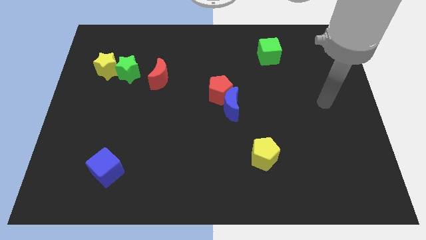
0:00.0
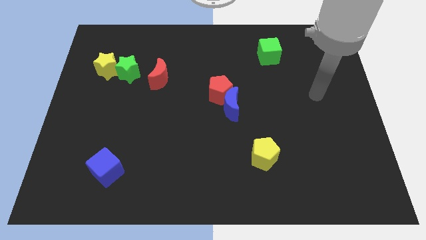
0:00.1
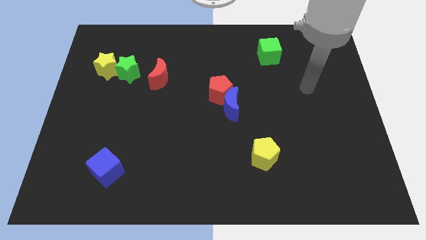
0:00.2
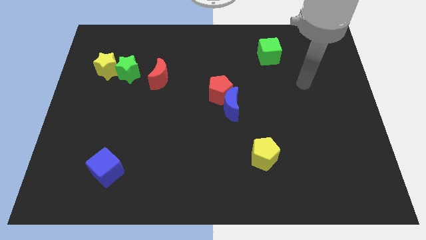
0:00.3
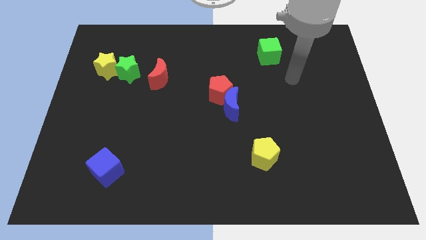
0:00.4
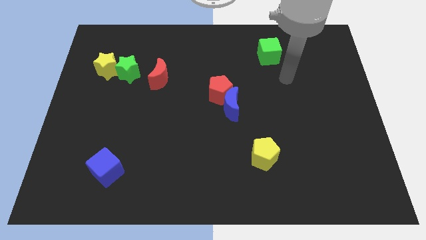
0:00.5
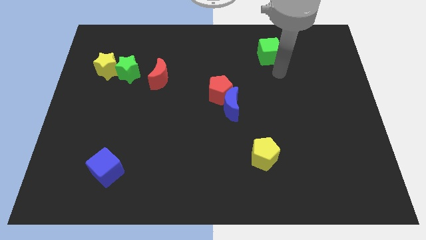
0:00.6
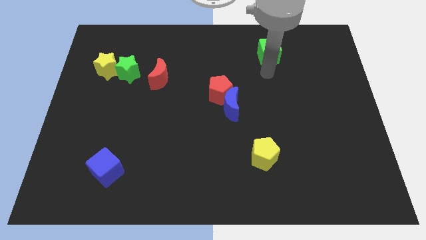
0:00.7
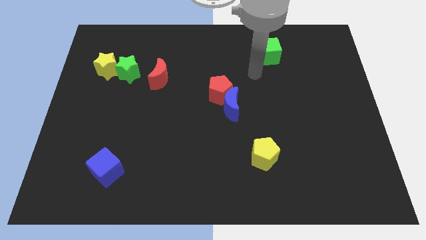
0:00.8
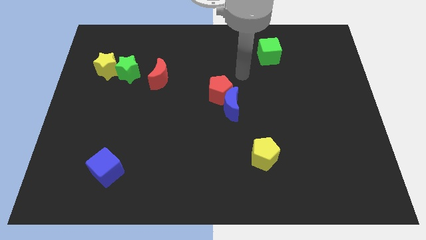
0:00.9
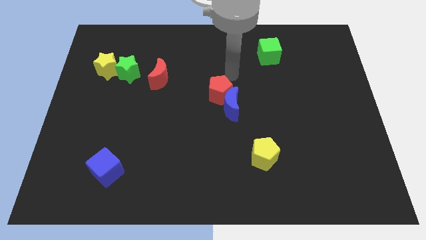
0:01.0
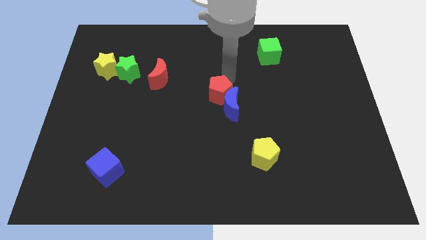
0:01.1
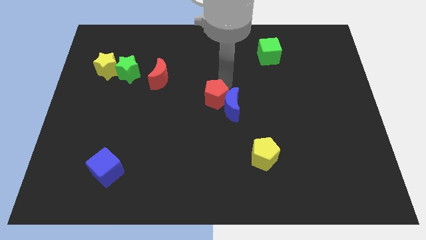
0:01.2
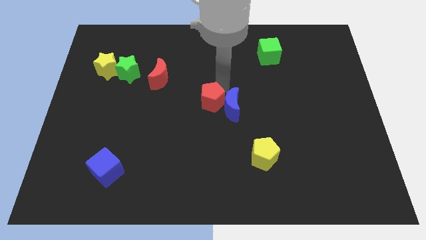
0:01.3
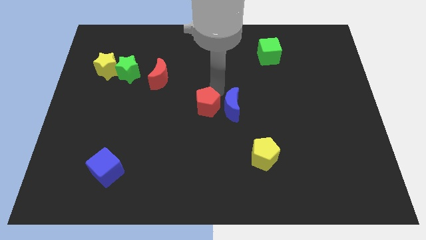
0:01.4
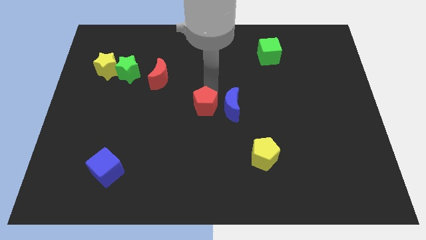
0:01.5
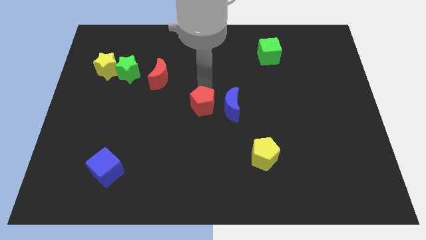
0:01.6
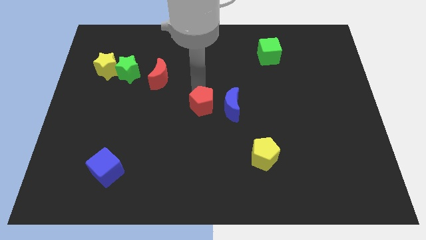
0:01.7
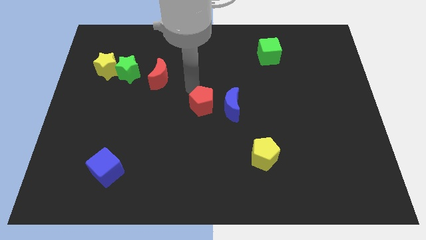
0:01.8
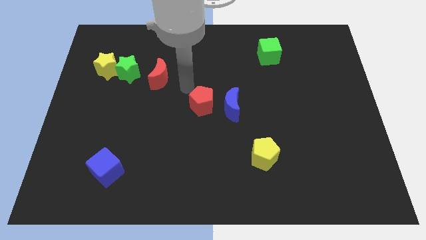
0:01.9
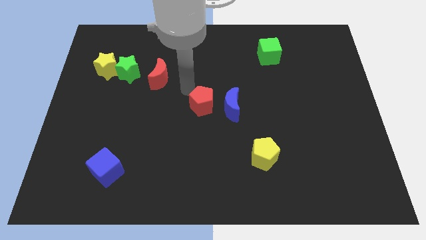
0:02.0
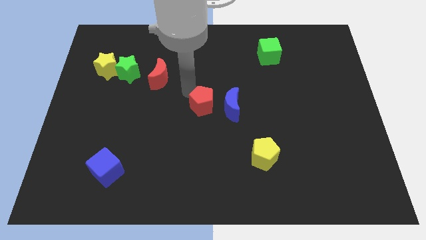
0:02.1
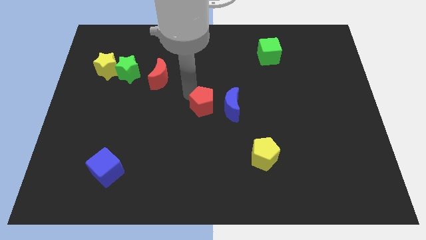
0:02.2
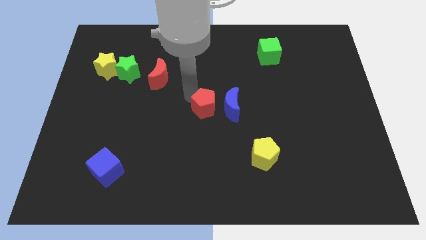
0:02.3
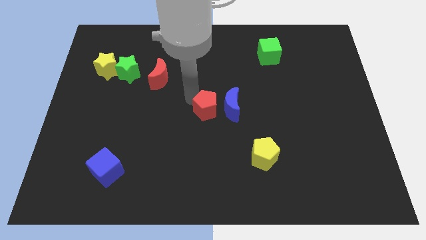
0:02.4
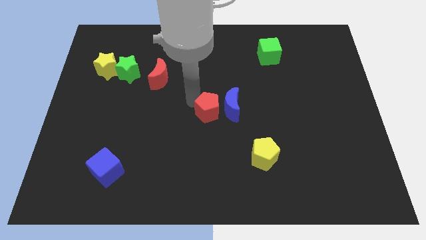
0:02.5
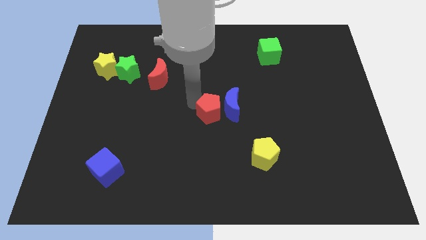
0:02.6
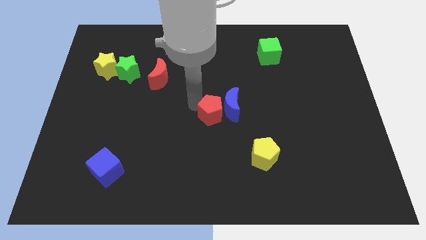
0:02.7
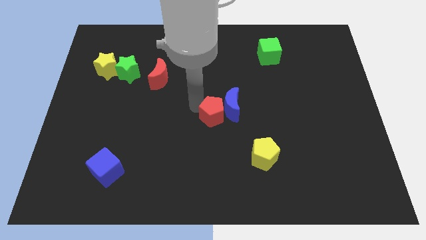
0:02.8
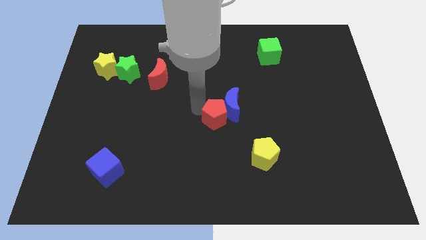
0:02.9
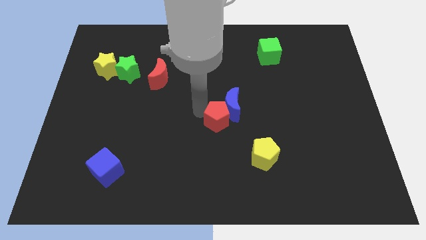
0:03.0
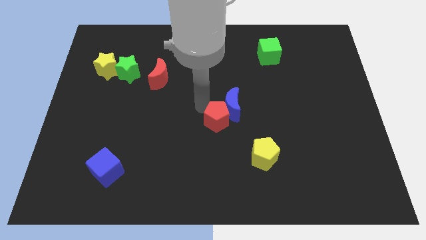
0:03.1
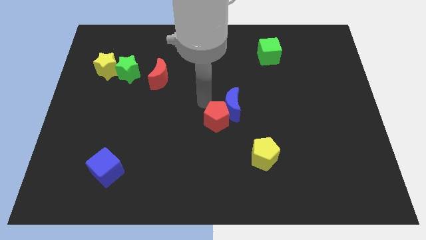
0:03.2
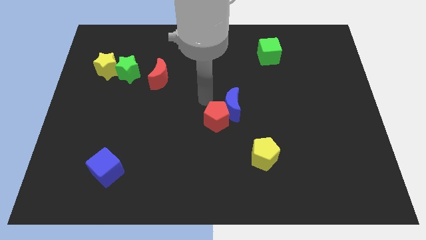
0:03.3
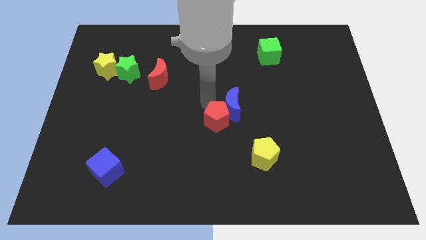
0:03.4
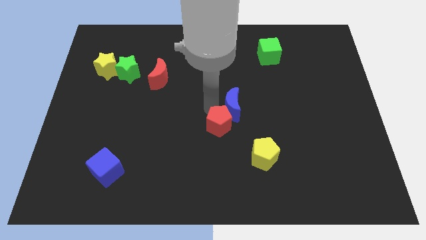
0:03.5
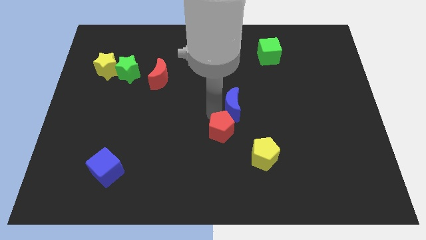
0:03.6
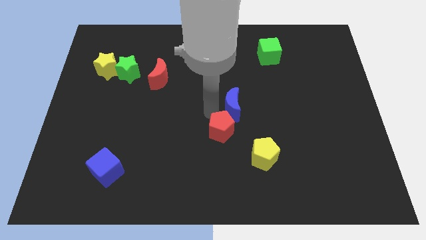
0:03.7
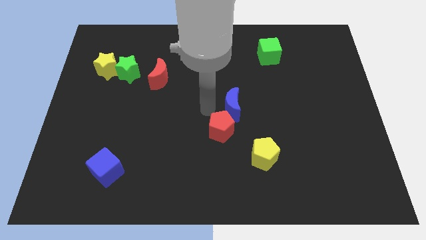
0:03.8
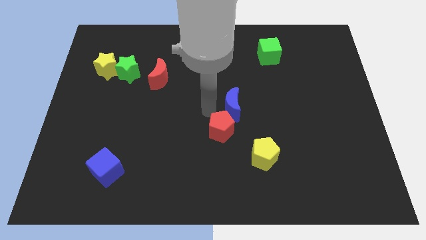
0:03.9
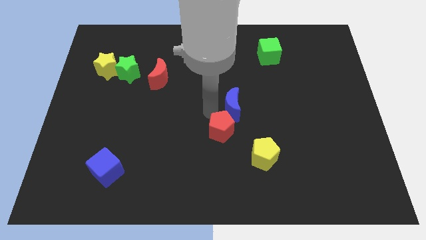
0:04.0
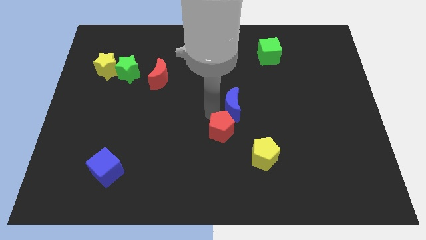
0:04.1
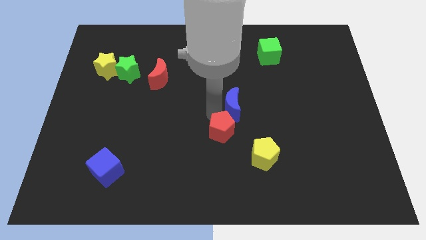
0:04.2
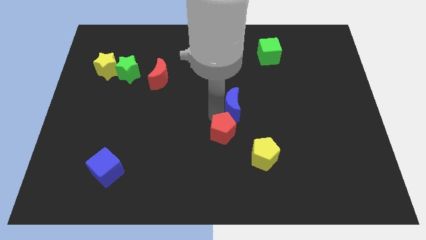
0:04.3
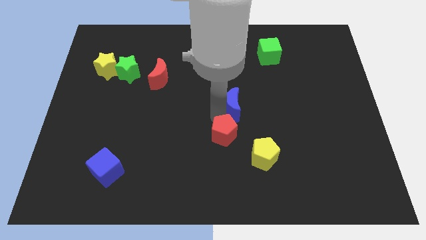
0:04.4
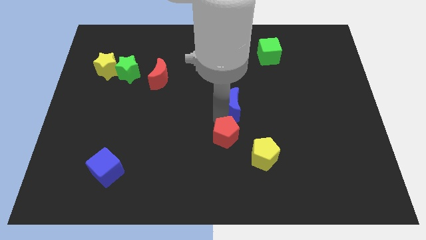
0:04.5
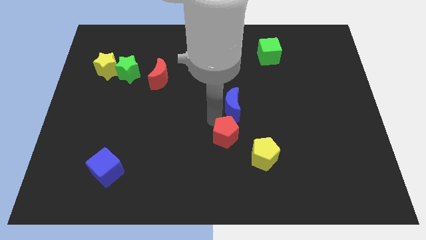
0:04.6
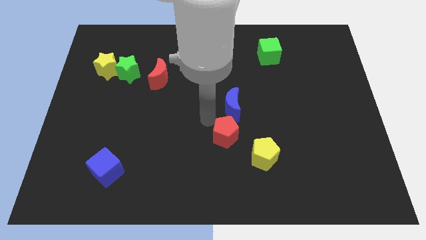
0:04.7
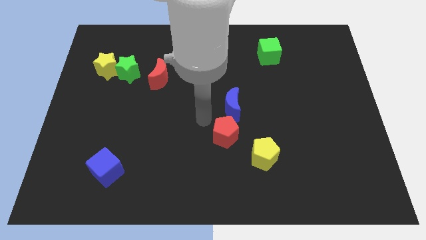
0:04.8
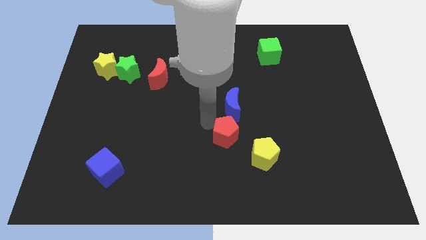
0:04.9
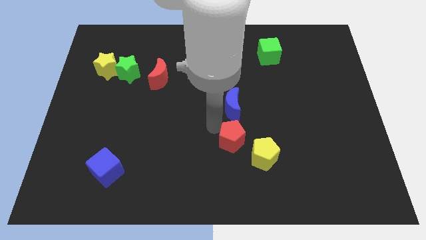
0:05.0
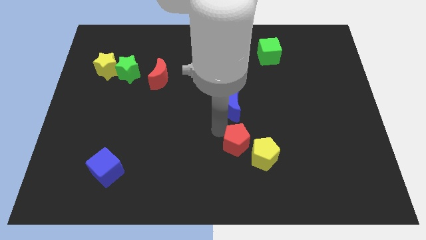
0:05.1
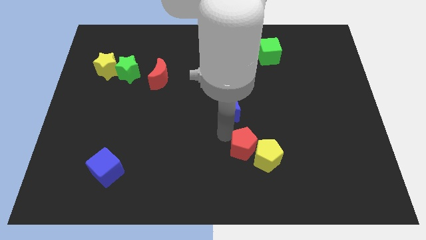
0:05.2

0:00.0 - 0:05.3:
push the red pentagon next to the yellow pentagon

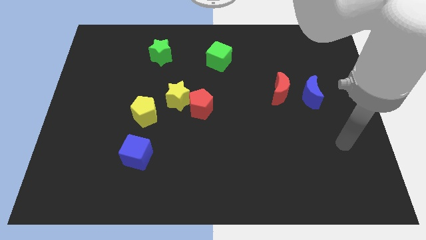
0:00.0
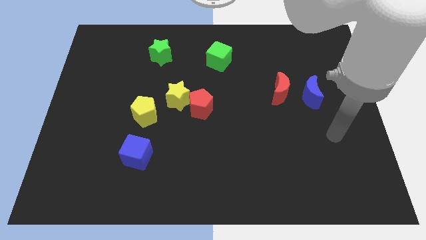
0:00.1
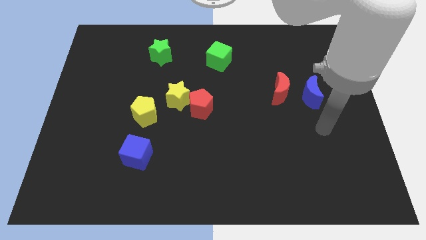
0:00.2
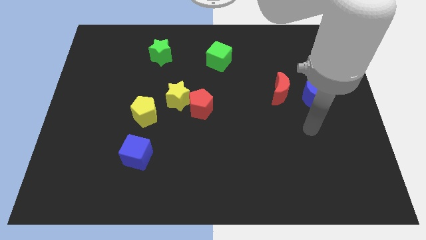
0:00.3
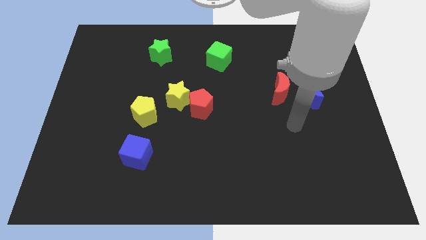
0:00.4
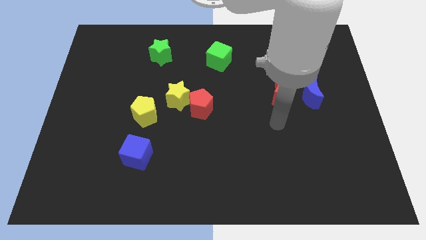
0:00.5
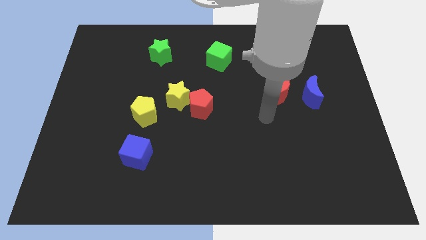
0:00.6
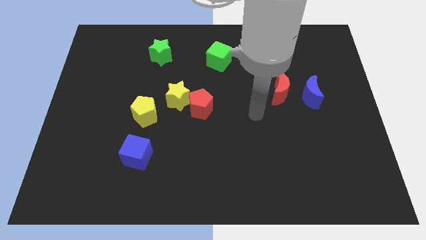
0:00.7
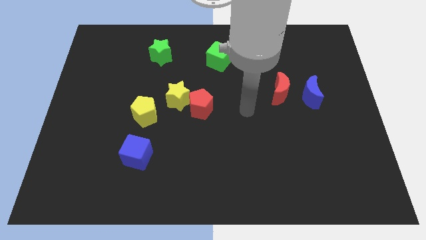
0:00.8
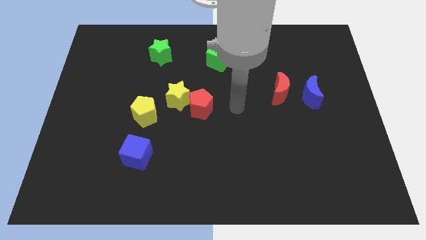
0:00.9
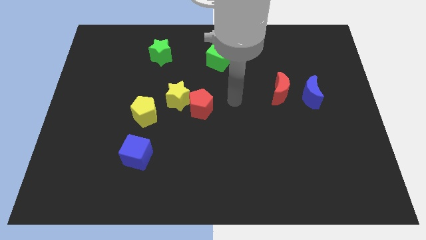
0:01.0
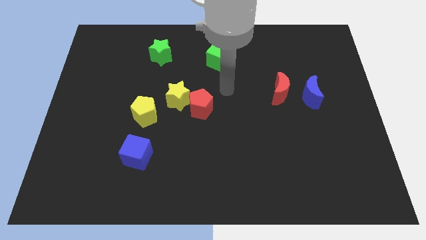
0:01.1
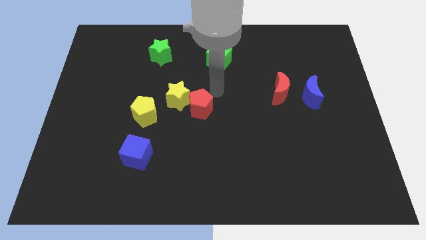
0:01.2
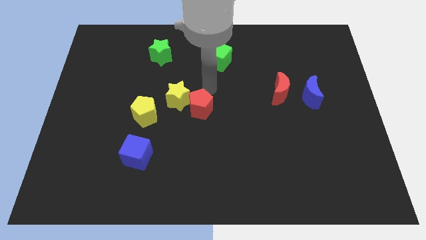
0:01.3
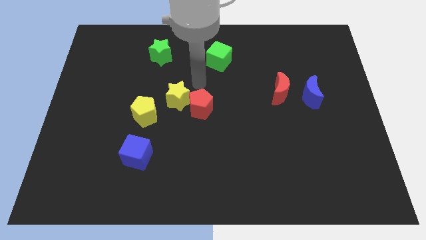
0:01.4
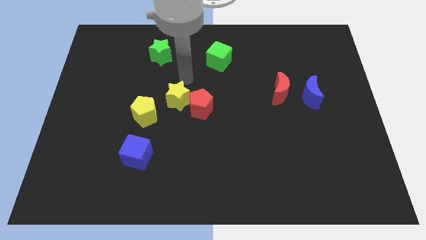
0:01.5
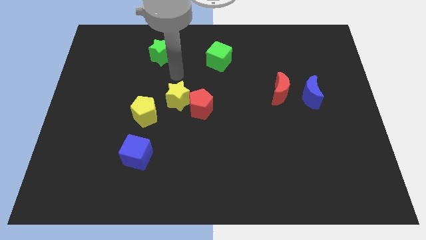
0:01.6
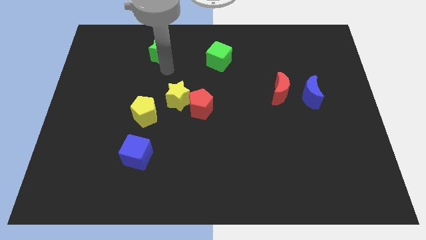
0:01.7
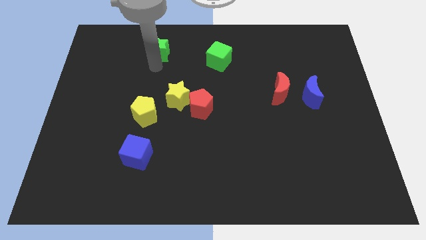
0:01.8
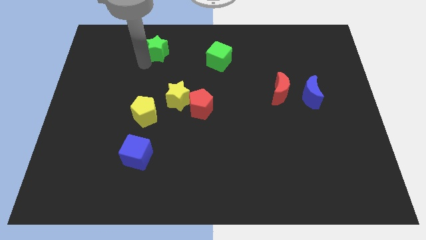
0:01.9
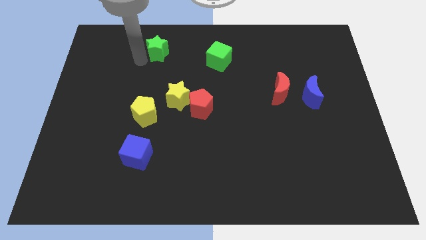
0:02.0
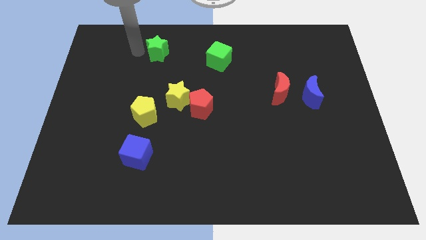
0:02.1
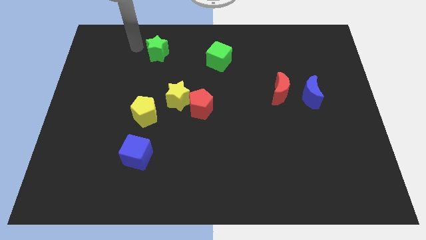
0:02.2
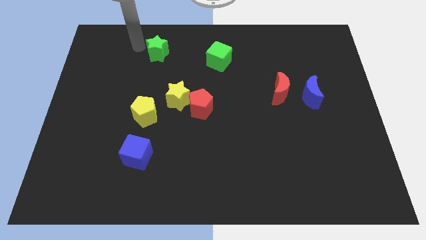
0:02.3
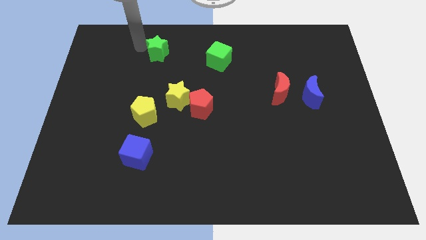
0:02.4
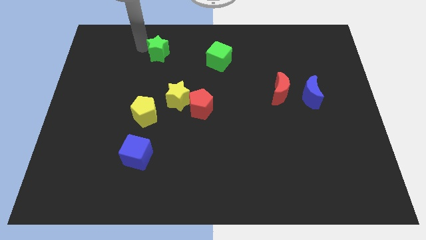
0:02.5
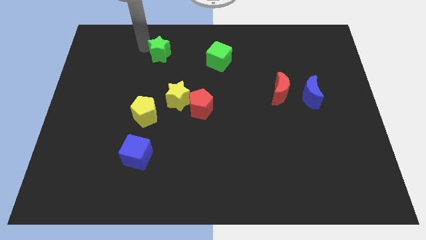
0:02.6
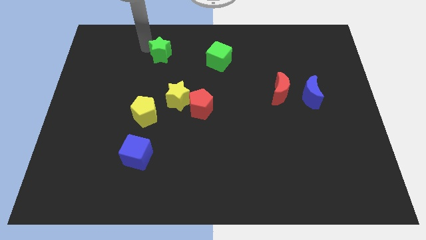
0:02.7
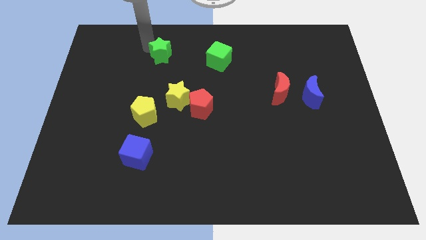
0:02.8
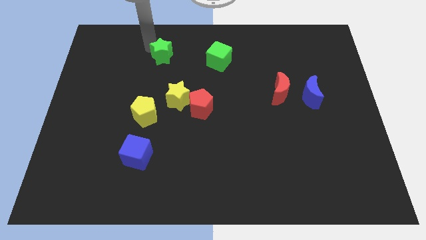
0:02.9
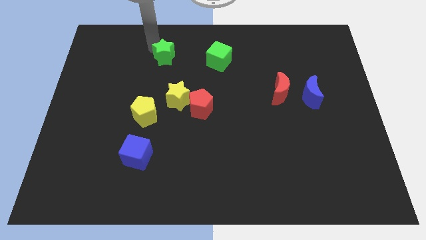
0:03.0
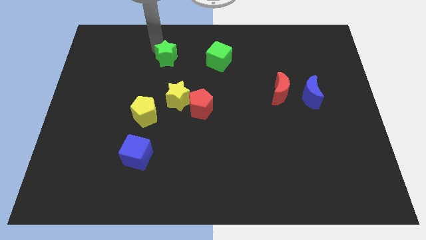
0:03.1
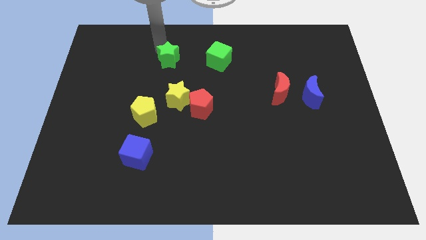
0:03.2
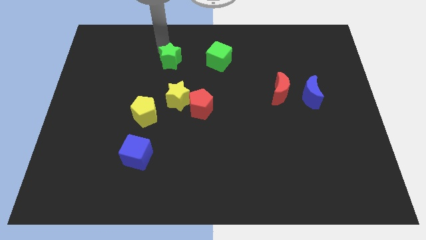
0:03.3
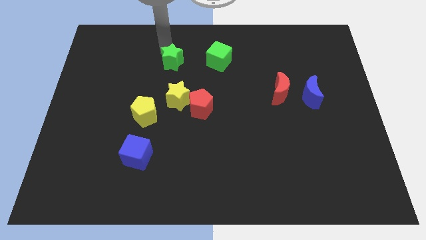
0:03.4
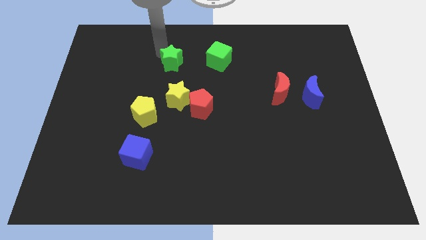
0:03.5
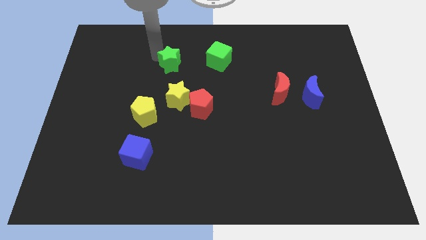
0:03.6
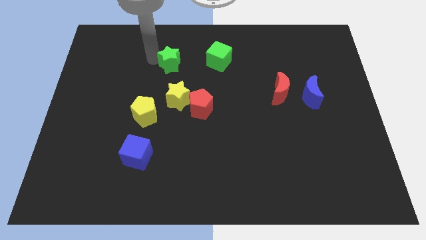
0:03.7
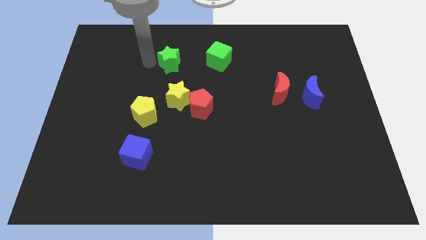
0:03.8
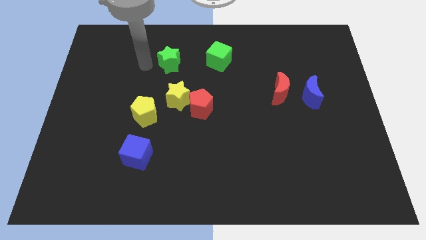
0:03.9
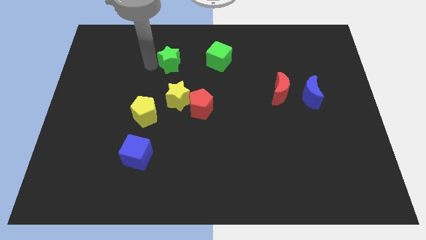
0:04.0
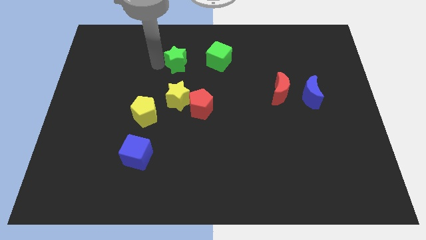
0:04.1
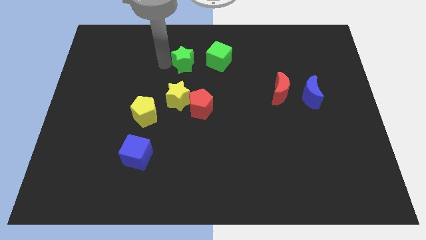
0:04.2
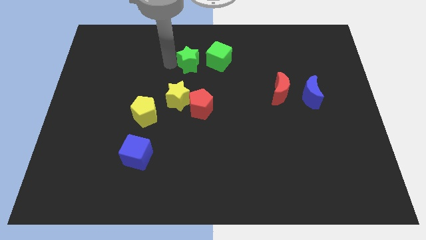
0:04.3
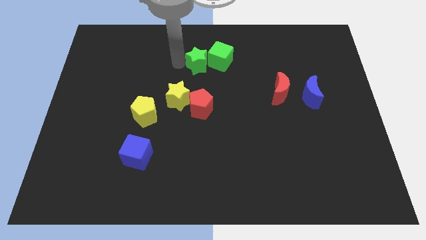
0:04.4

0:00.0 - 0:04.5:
push the green star towards the green cube
